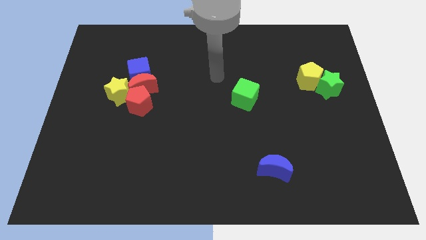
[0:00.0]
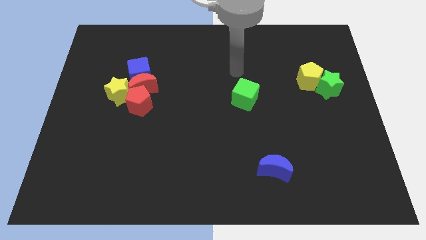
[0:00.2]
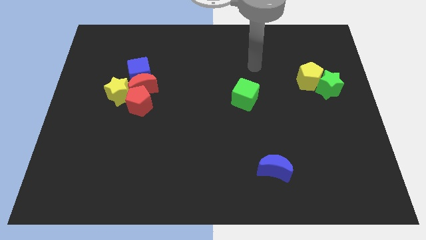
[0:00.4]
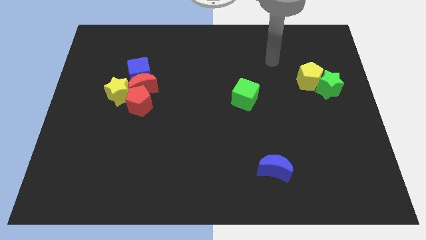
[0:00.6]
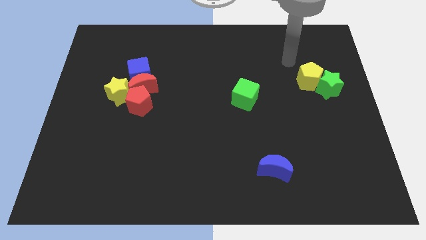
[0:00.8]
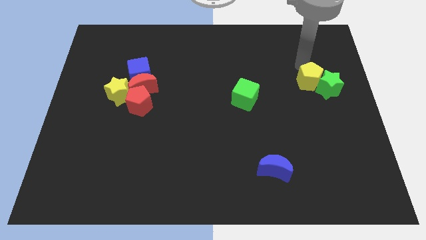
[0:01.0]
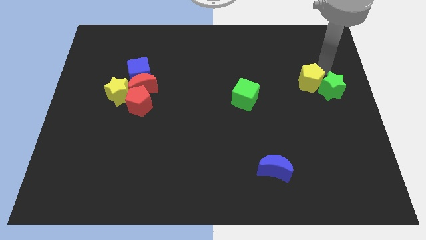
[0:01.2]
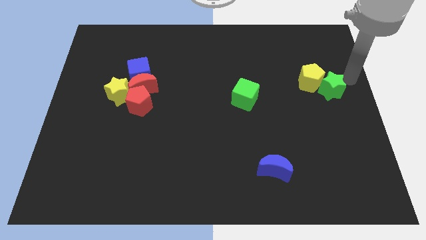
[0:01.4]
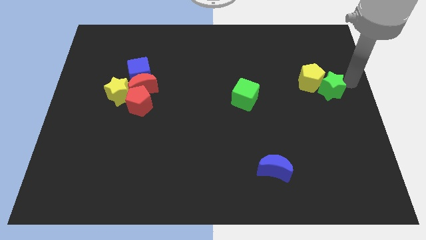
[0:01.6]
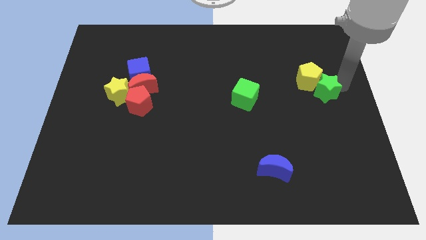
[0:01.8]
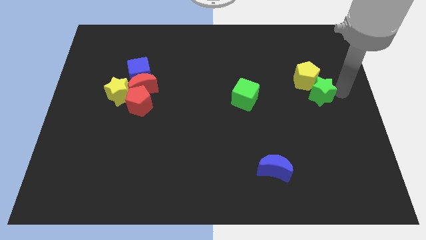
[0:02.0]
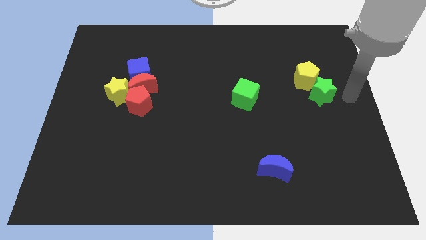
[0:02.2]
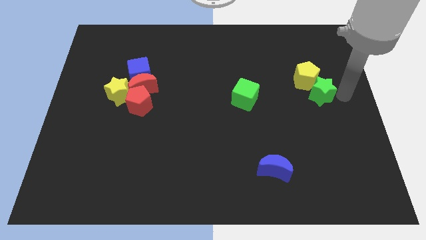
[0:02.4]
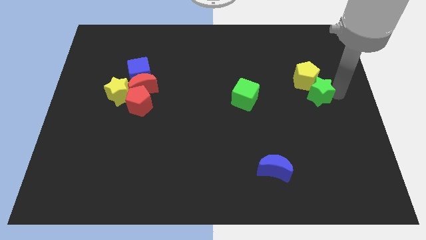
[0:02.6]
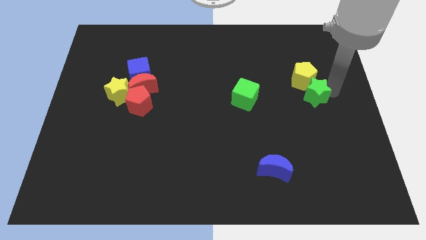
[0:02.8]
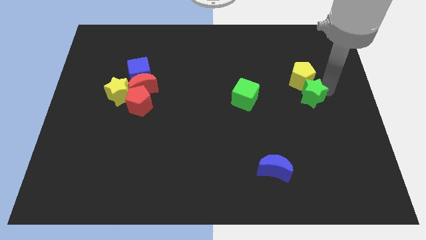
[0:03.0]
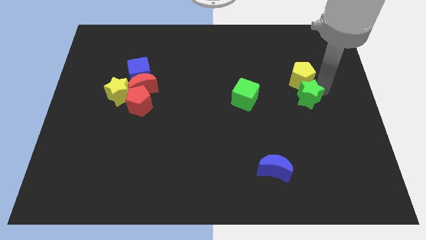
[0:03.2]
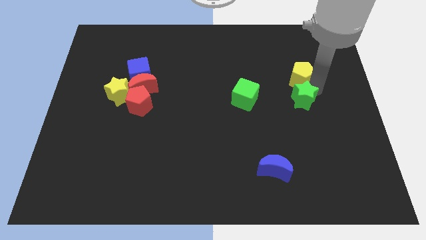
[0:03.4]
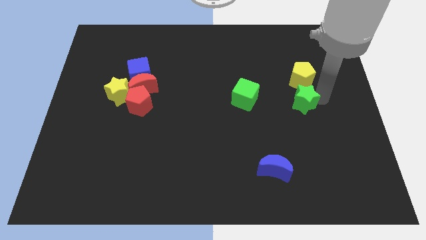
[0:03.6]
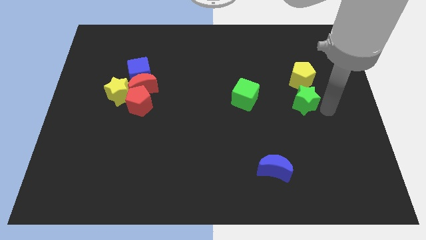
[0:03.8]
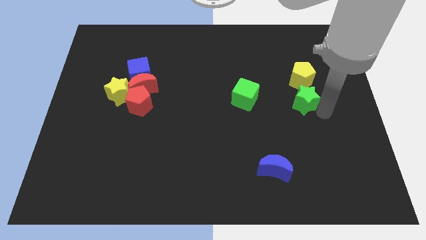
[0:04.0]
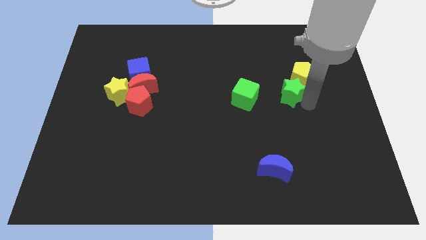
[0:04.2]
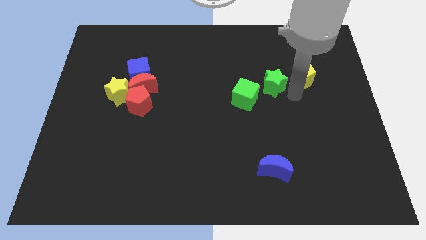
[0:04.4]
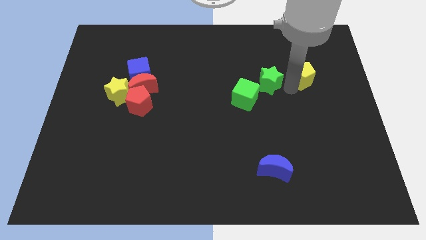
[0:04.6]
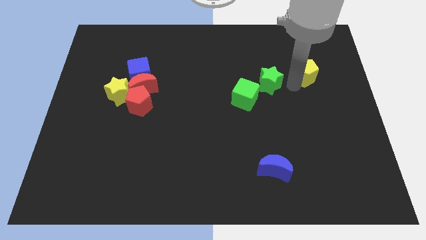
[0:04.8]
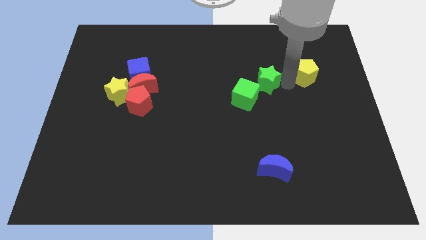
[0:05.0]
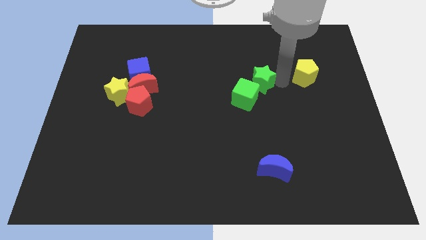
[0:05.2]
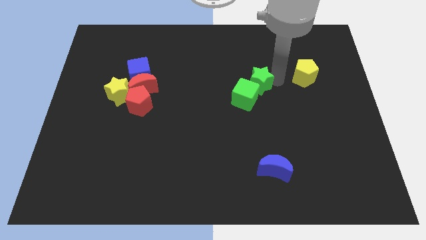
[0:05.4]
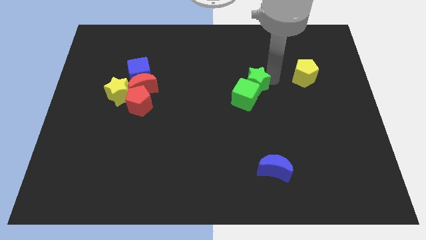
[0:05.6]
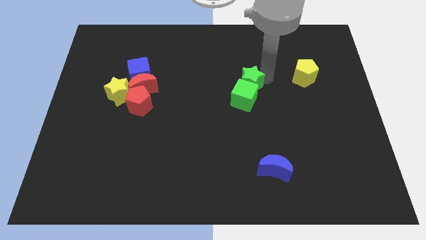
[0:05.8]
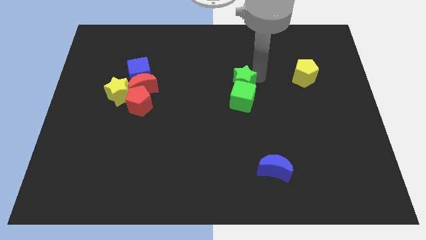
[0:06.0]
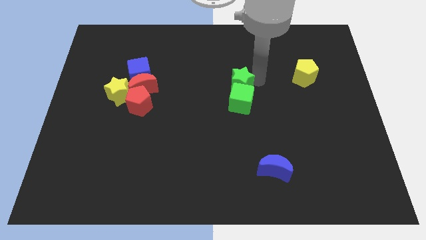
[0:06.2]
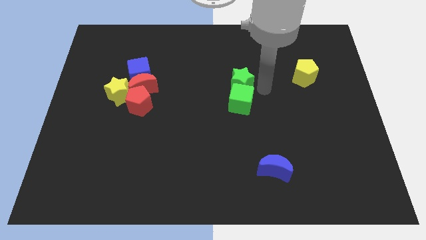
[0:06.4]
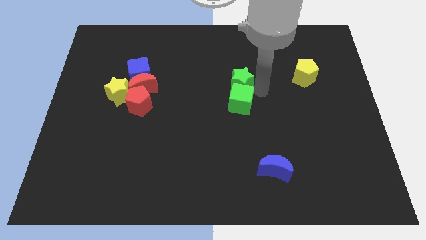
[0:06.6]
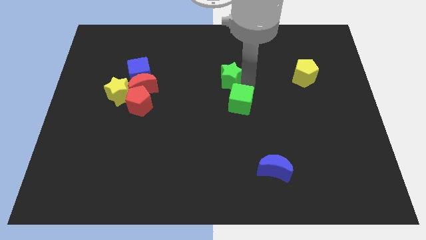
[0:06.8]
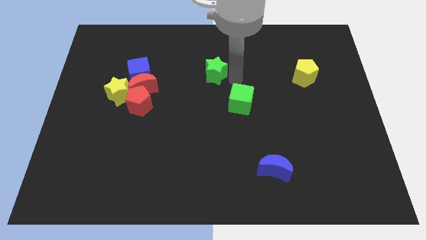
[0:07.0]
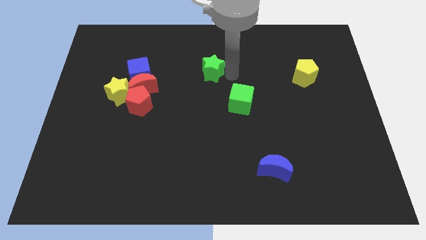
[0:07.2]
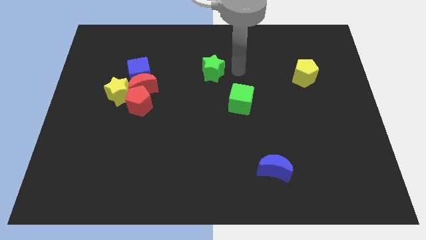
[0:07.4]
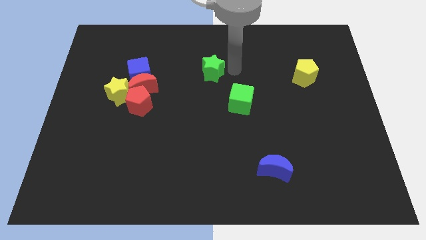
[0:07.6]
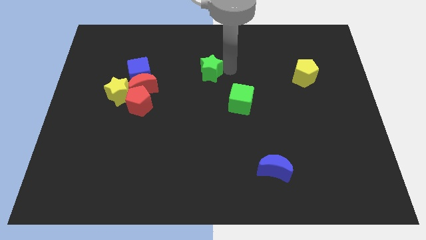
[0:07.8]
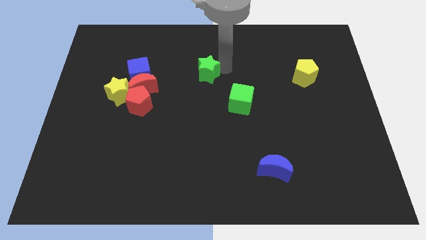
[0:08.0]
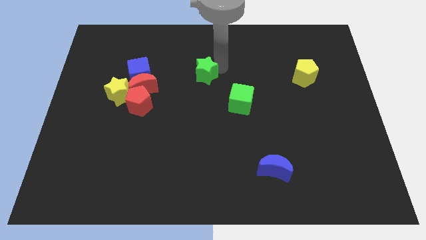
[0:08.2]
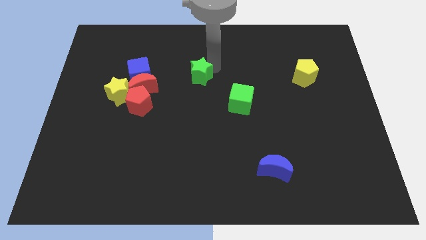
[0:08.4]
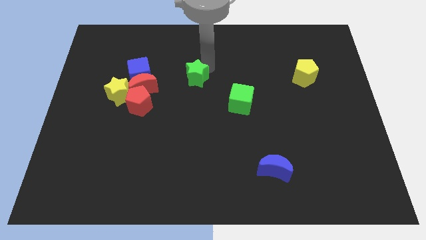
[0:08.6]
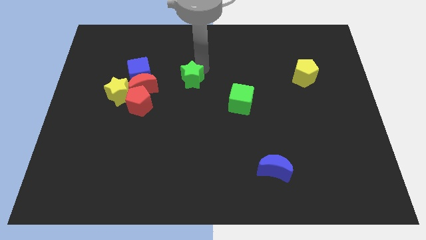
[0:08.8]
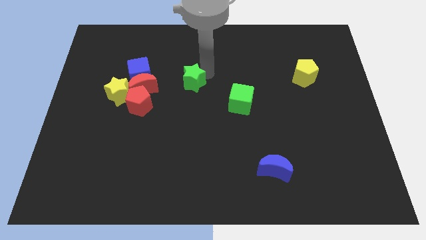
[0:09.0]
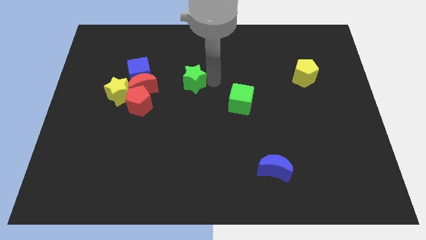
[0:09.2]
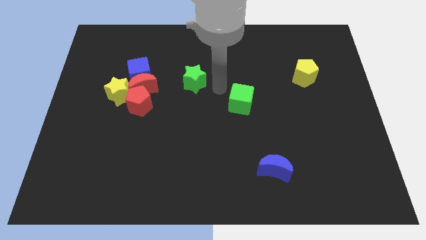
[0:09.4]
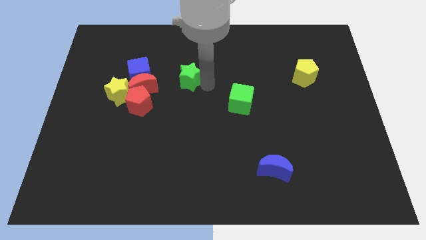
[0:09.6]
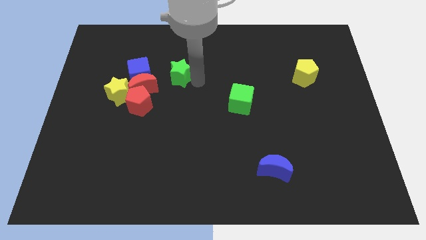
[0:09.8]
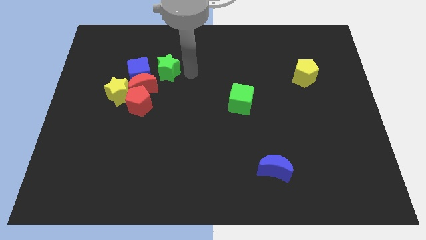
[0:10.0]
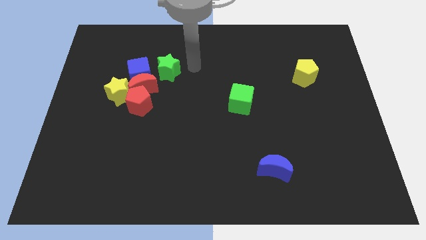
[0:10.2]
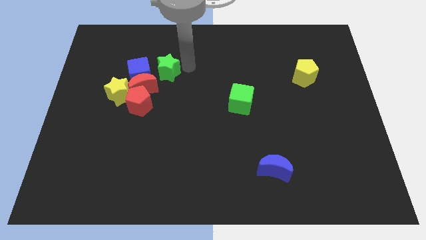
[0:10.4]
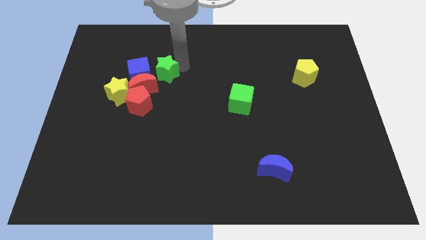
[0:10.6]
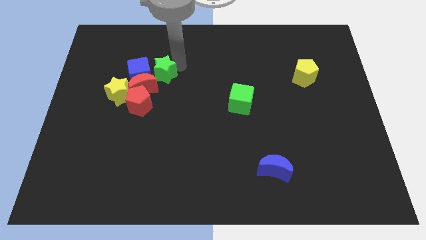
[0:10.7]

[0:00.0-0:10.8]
slide the green star next to the blue cube

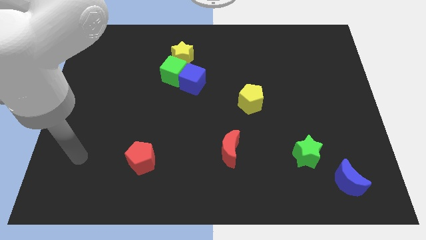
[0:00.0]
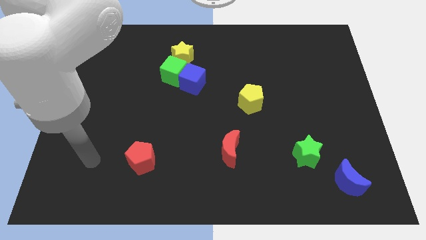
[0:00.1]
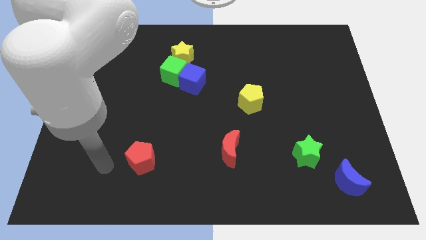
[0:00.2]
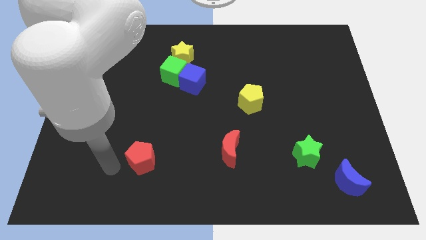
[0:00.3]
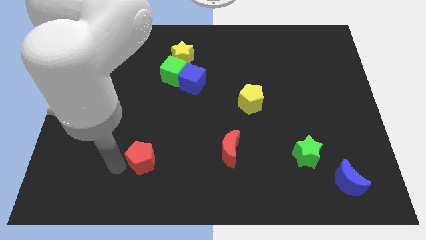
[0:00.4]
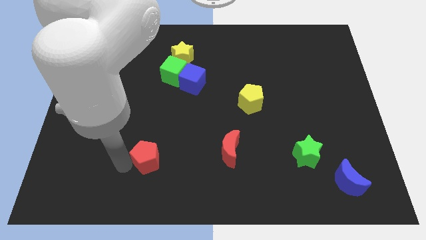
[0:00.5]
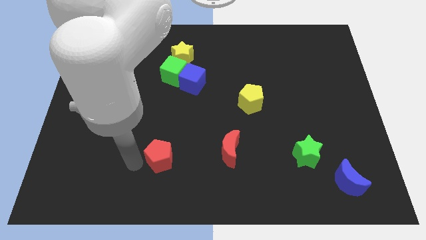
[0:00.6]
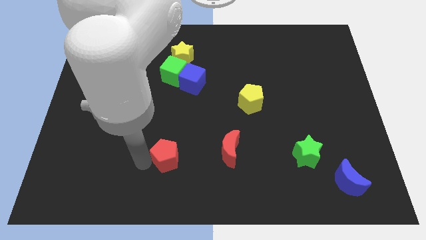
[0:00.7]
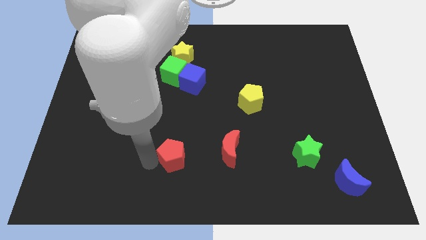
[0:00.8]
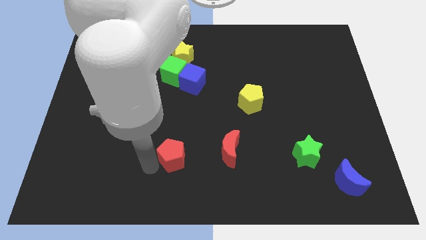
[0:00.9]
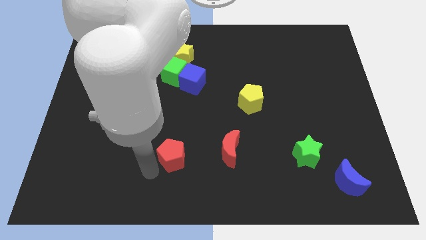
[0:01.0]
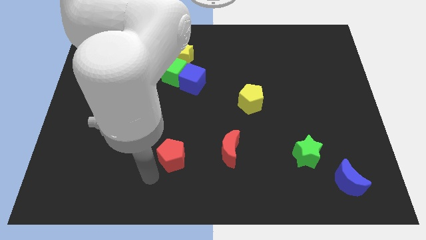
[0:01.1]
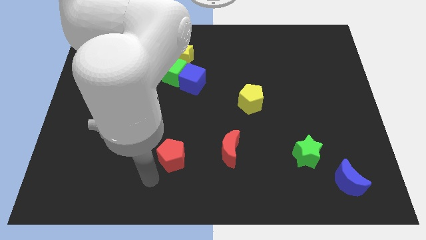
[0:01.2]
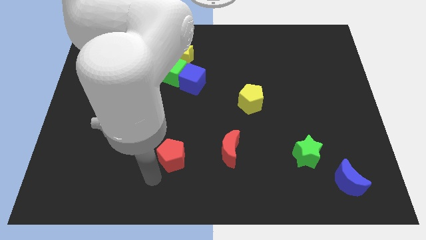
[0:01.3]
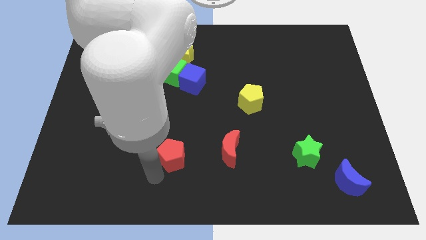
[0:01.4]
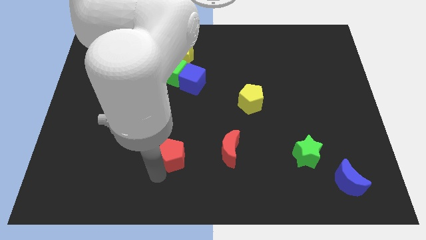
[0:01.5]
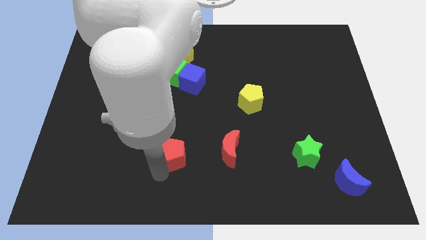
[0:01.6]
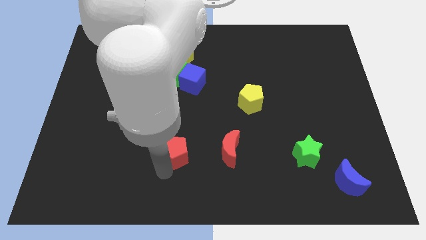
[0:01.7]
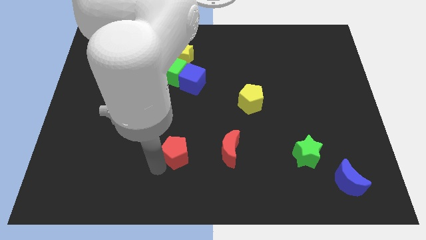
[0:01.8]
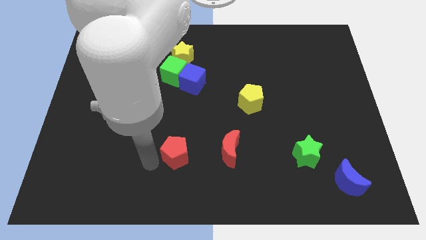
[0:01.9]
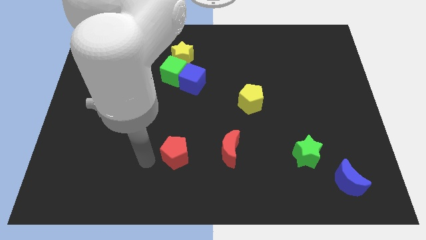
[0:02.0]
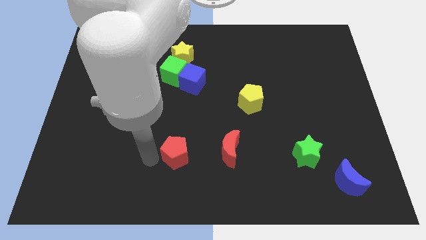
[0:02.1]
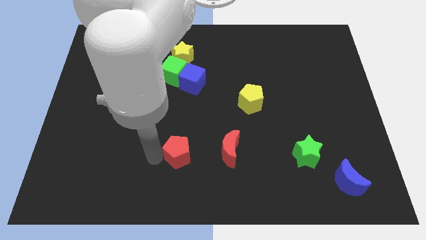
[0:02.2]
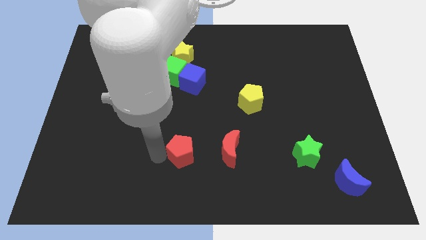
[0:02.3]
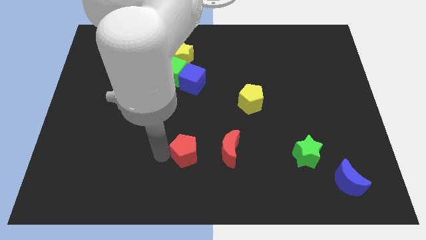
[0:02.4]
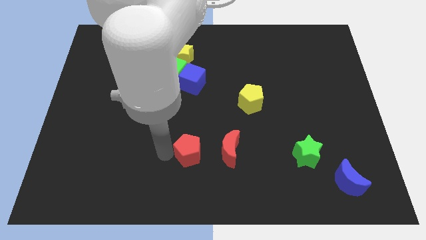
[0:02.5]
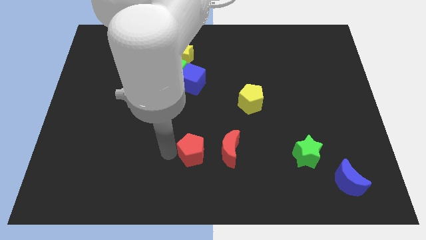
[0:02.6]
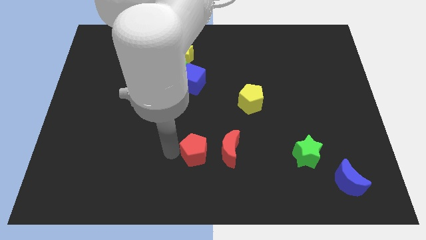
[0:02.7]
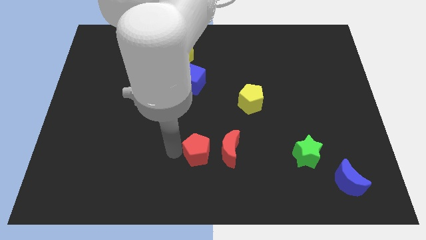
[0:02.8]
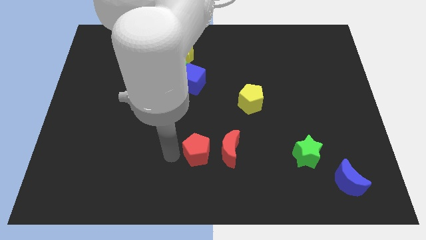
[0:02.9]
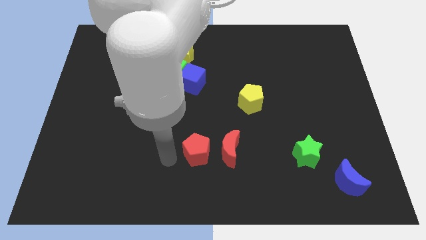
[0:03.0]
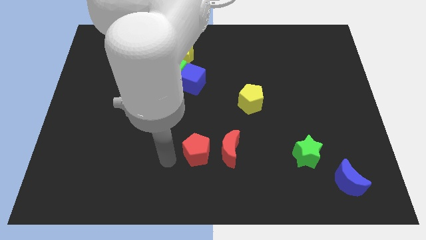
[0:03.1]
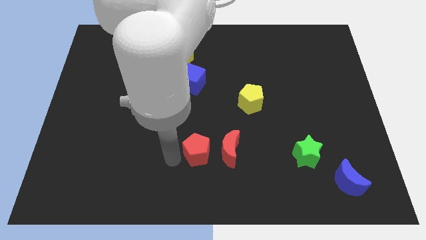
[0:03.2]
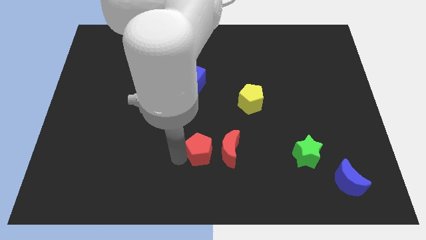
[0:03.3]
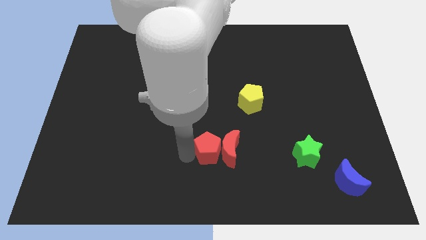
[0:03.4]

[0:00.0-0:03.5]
push the red pentagon to the red moon
